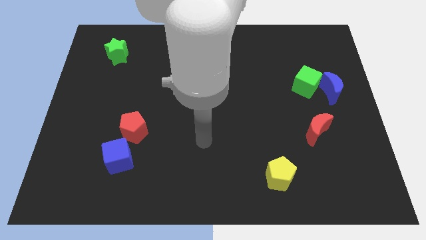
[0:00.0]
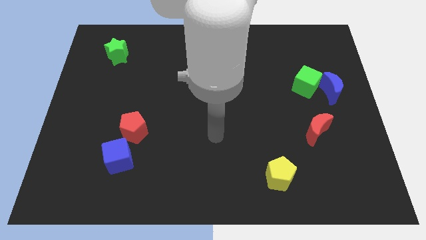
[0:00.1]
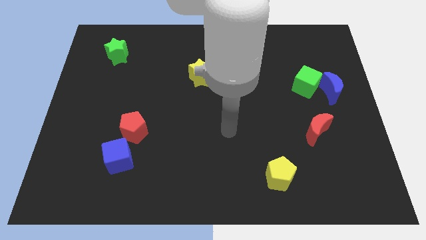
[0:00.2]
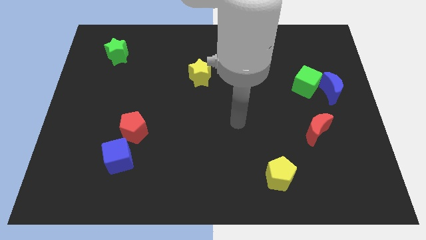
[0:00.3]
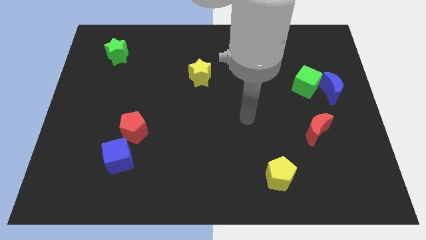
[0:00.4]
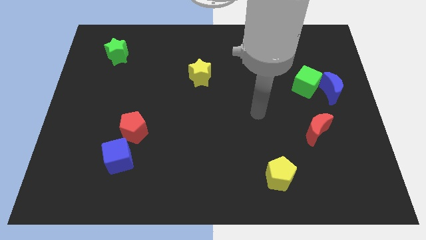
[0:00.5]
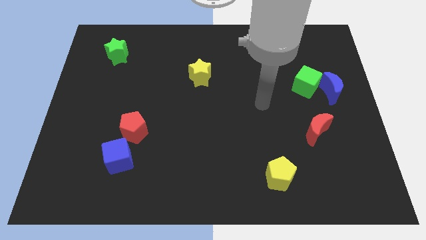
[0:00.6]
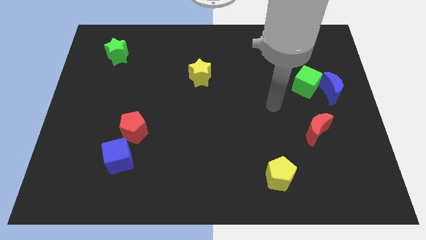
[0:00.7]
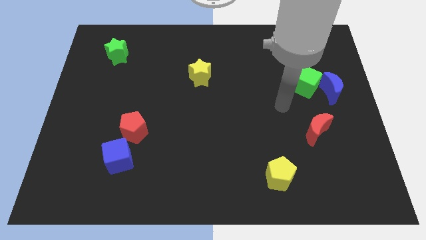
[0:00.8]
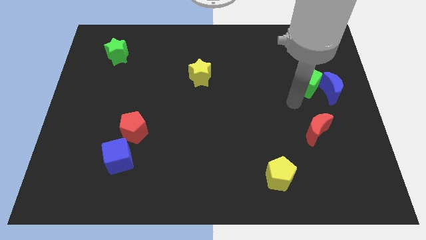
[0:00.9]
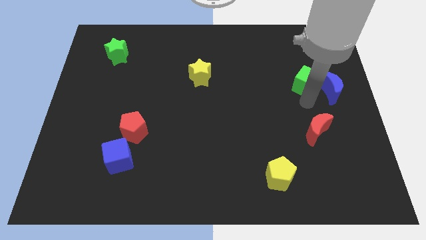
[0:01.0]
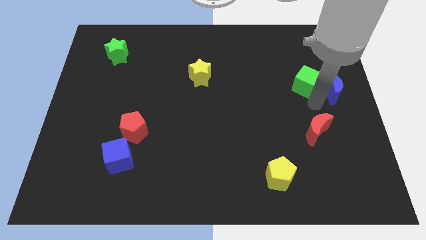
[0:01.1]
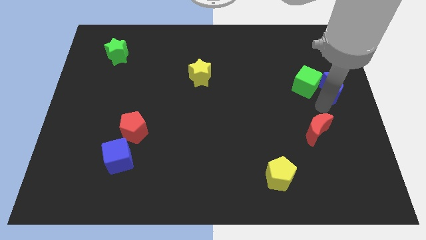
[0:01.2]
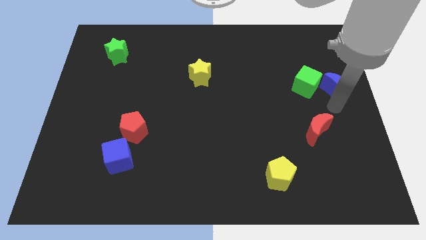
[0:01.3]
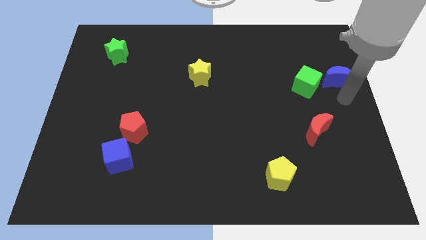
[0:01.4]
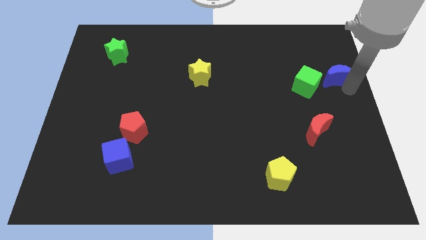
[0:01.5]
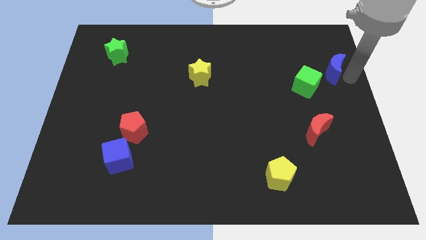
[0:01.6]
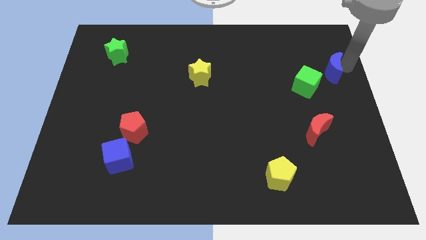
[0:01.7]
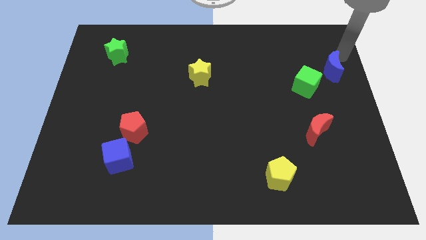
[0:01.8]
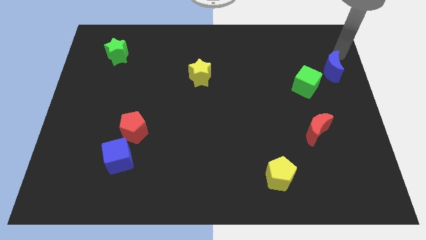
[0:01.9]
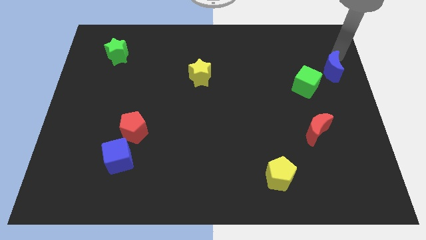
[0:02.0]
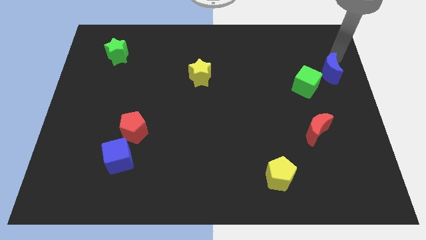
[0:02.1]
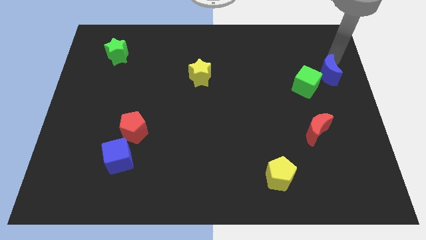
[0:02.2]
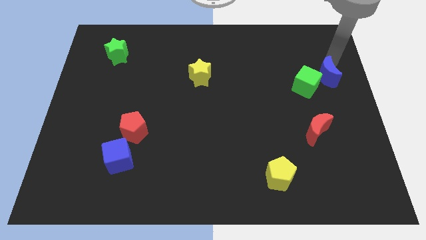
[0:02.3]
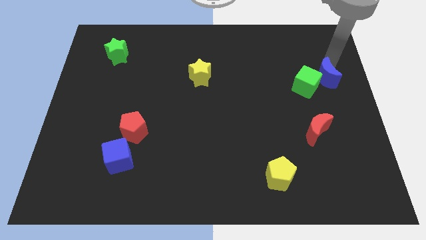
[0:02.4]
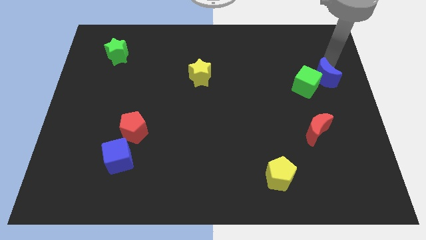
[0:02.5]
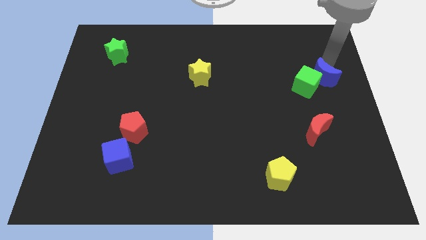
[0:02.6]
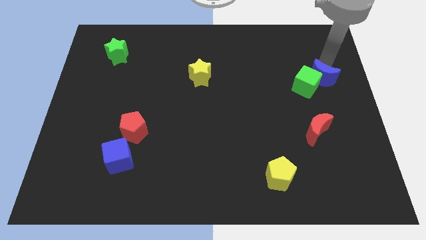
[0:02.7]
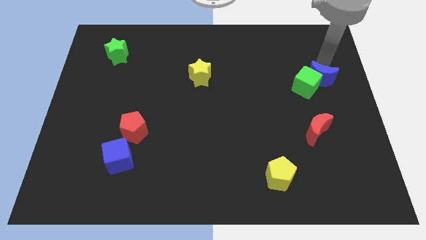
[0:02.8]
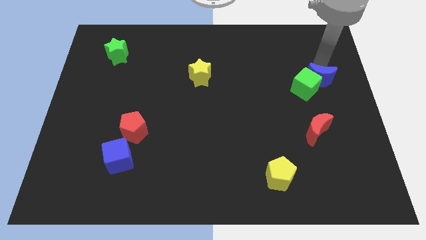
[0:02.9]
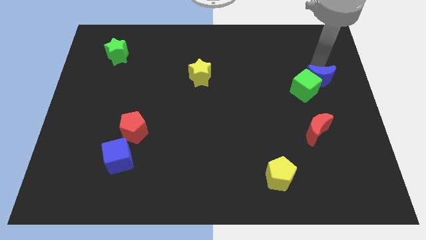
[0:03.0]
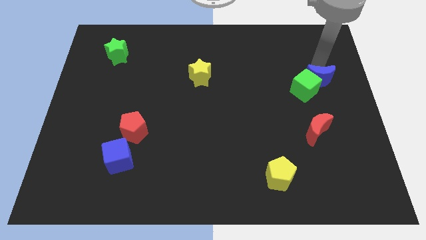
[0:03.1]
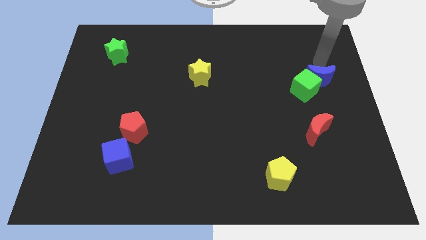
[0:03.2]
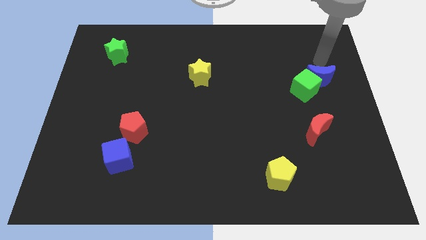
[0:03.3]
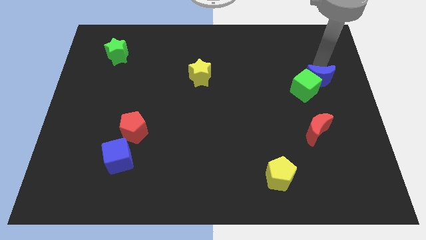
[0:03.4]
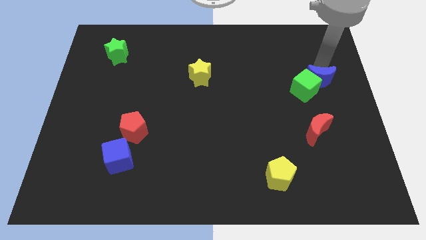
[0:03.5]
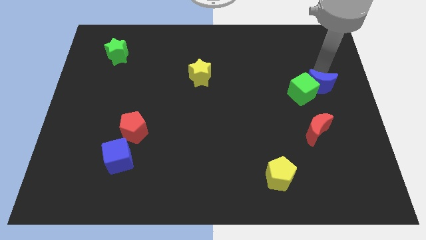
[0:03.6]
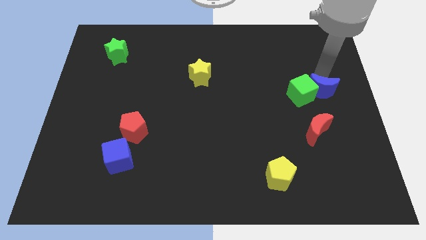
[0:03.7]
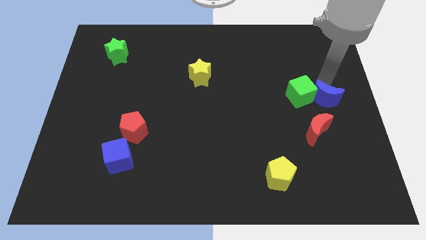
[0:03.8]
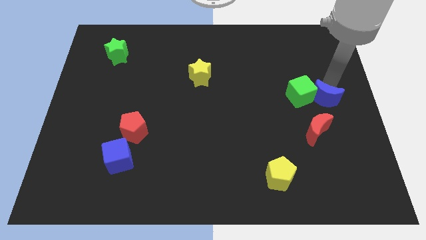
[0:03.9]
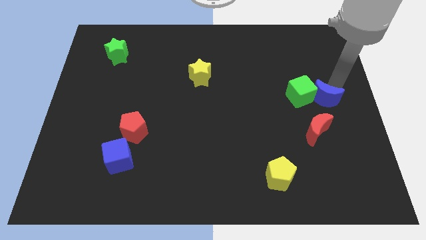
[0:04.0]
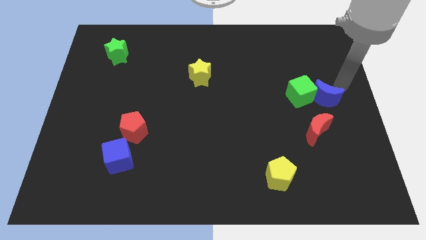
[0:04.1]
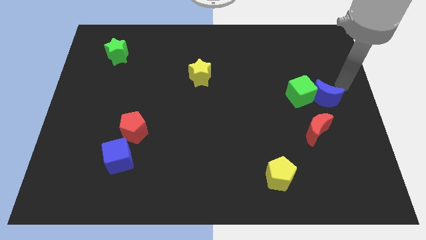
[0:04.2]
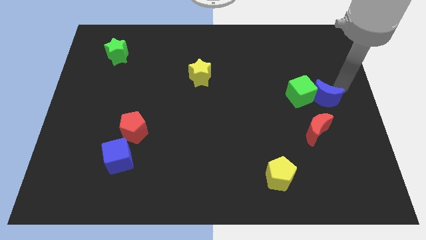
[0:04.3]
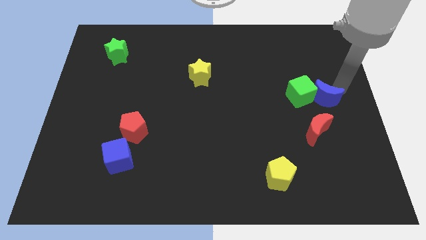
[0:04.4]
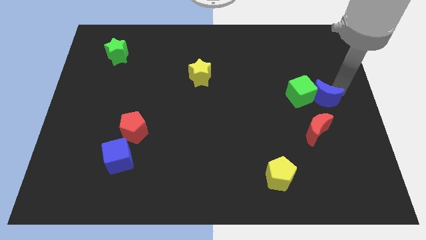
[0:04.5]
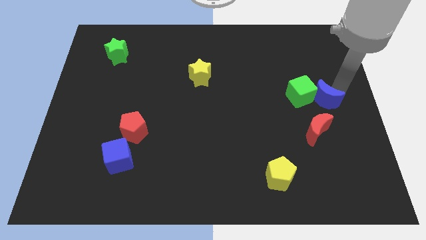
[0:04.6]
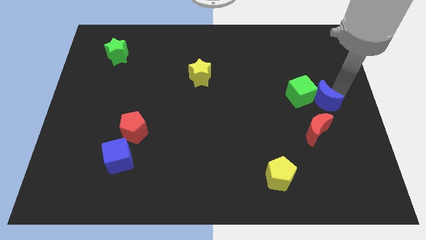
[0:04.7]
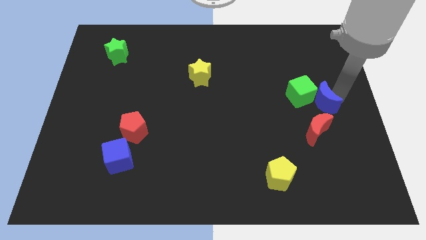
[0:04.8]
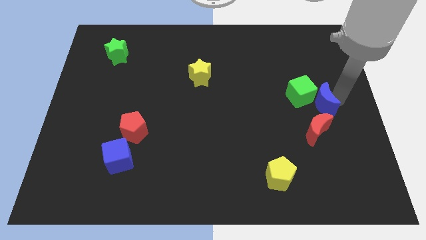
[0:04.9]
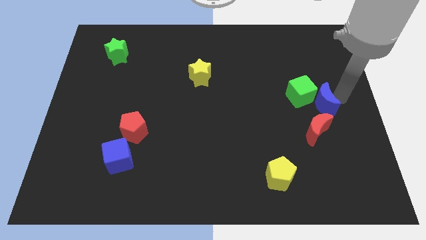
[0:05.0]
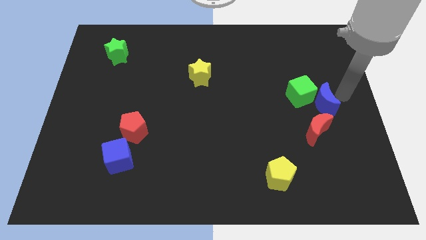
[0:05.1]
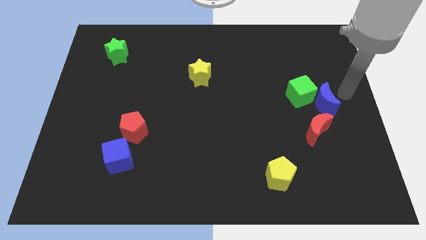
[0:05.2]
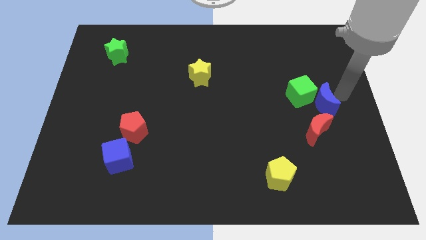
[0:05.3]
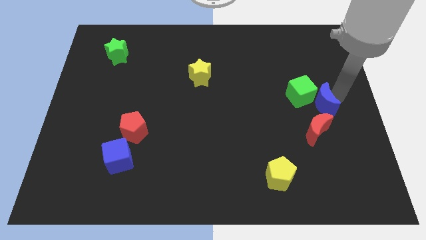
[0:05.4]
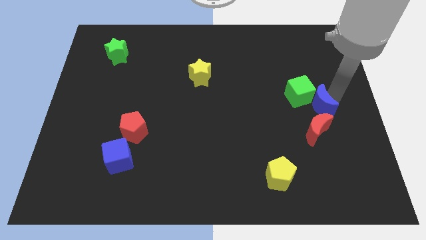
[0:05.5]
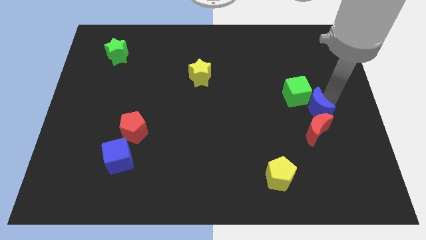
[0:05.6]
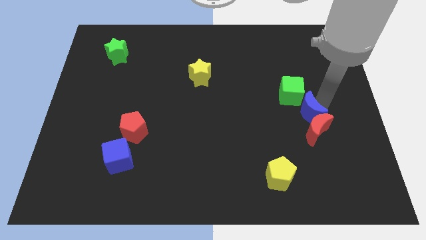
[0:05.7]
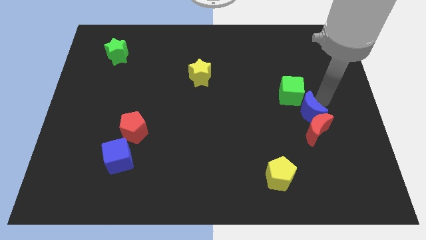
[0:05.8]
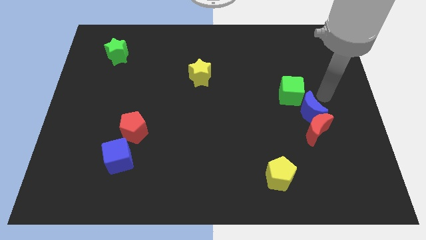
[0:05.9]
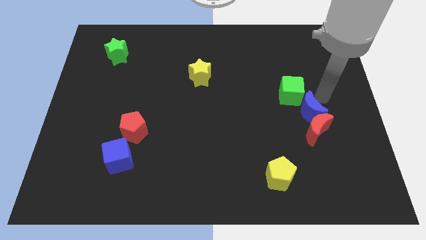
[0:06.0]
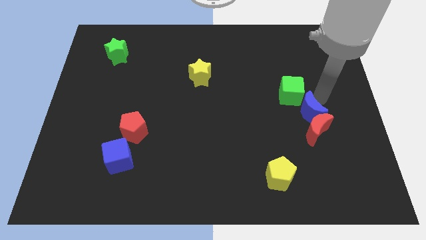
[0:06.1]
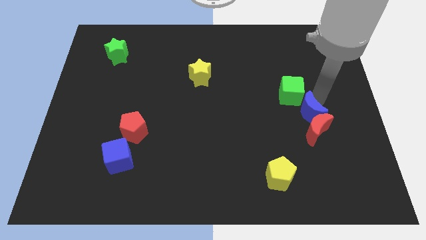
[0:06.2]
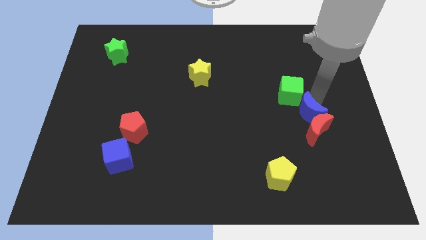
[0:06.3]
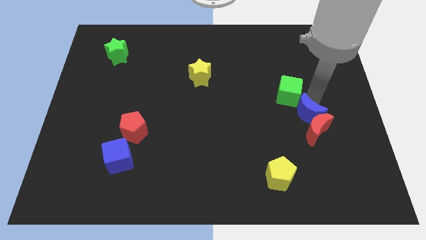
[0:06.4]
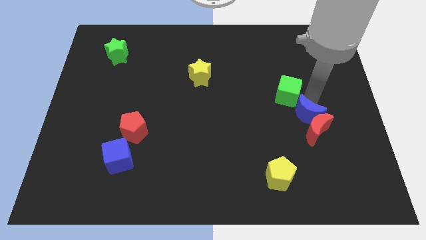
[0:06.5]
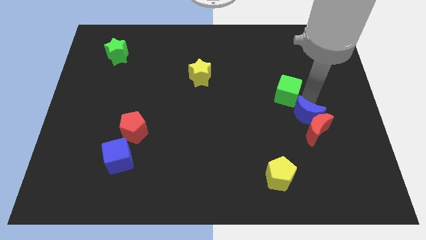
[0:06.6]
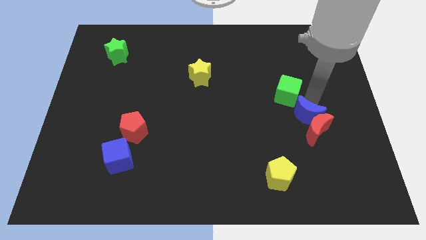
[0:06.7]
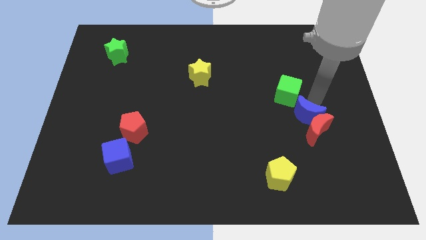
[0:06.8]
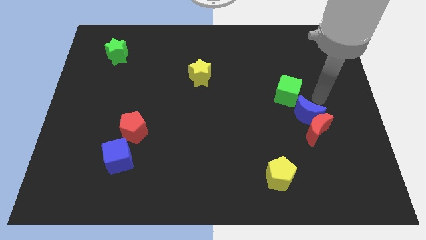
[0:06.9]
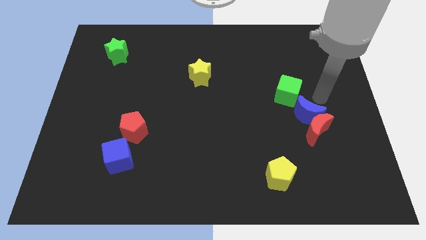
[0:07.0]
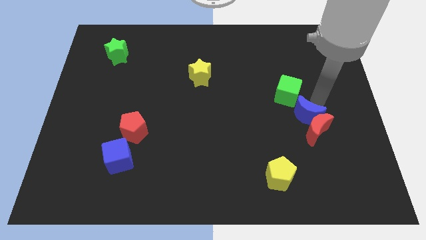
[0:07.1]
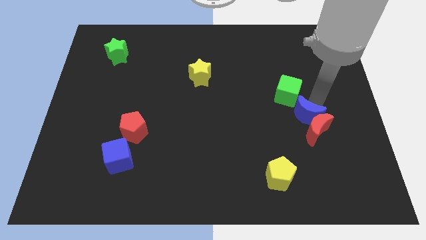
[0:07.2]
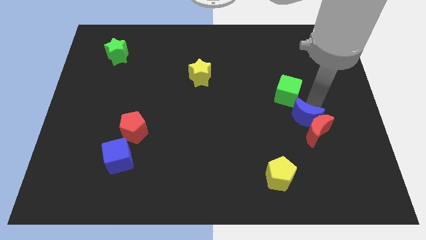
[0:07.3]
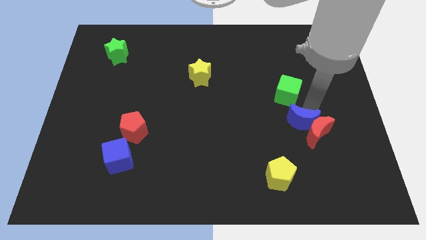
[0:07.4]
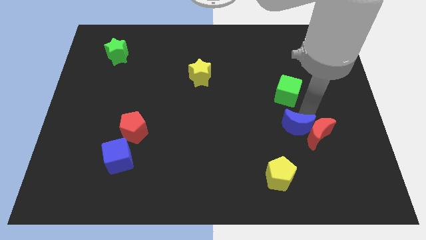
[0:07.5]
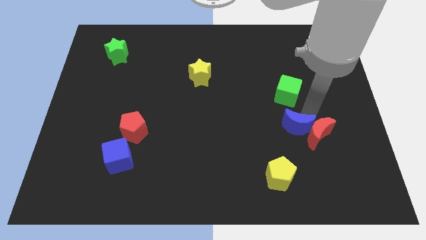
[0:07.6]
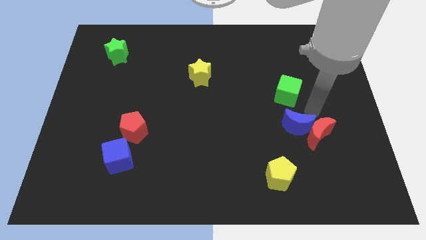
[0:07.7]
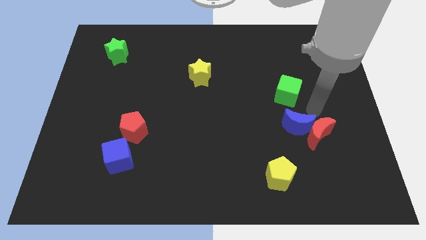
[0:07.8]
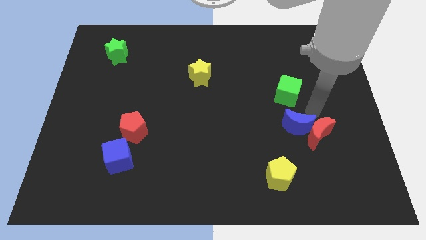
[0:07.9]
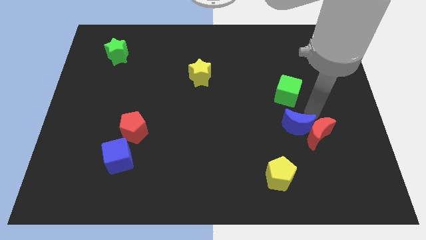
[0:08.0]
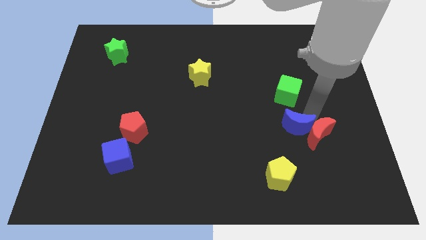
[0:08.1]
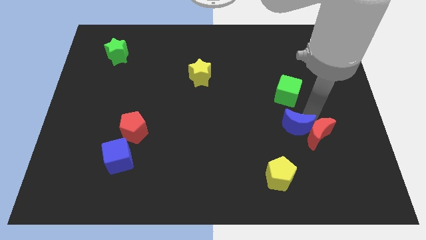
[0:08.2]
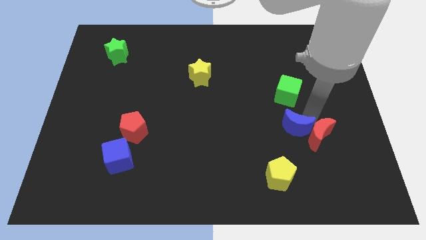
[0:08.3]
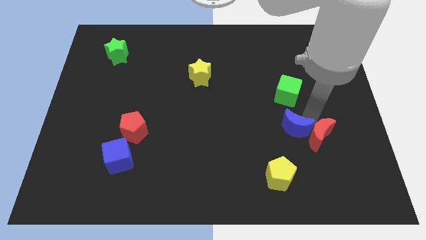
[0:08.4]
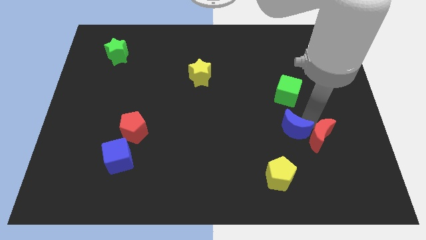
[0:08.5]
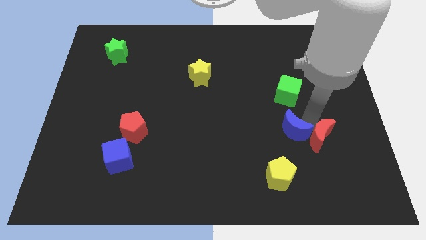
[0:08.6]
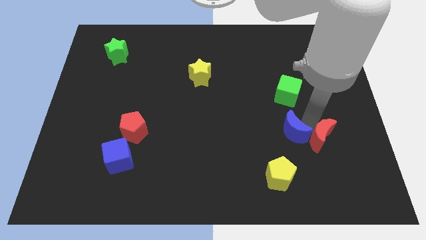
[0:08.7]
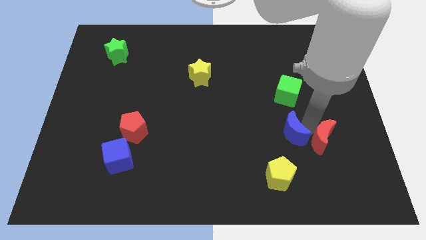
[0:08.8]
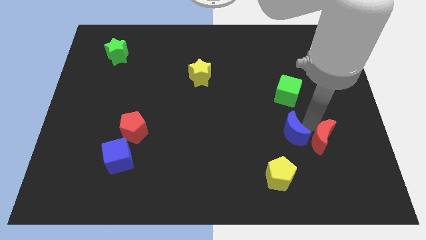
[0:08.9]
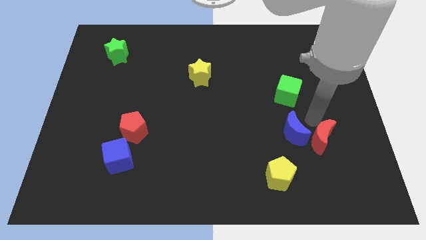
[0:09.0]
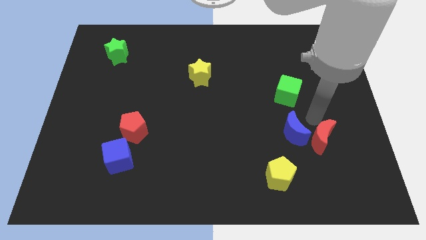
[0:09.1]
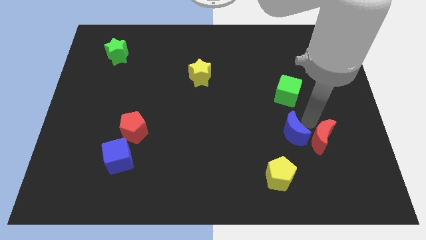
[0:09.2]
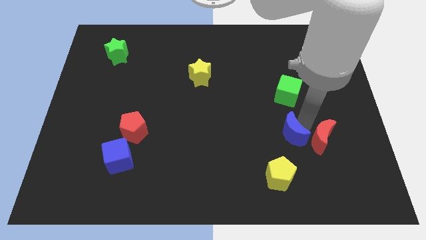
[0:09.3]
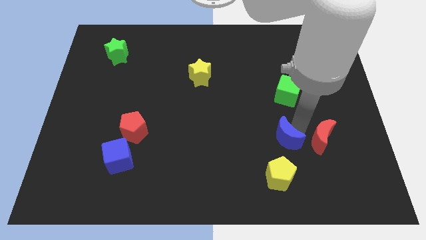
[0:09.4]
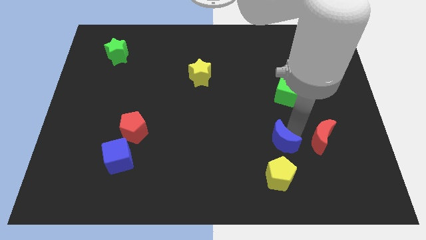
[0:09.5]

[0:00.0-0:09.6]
slide the blue moon diagonally down and left
